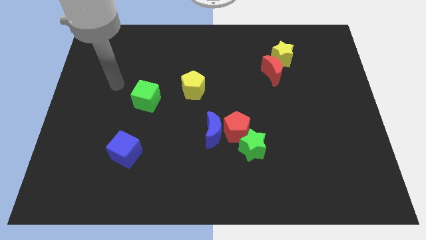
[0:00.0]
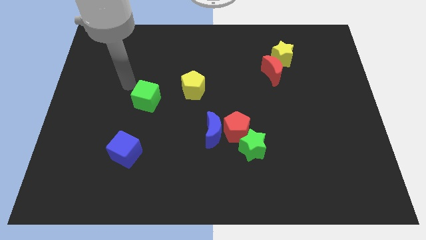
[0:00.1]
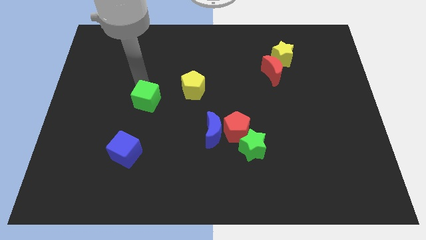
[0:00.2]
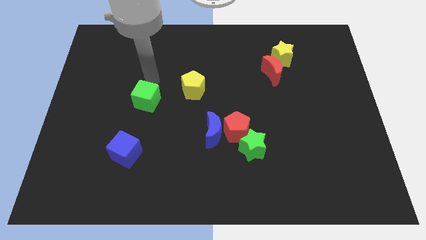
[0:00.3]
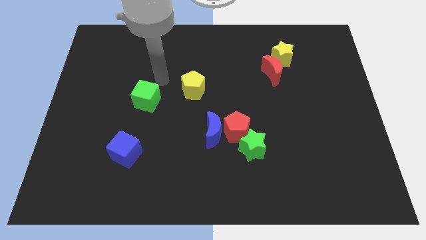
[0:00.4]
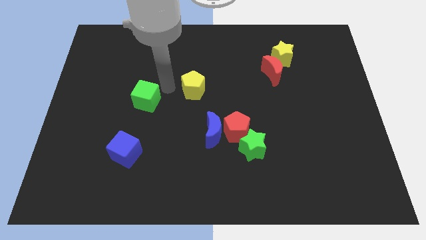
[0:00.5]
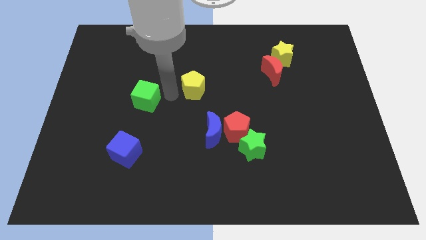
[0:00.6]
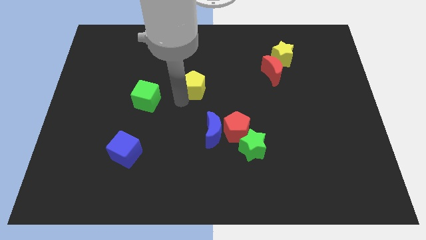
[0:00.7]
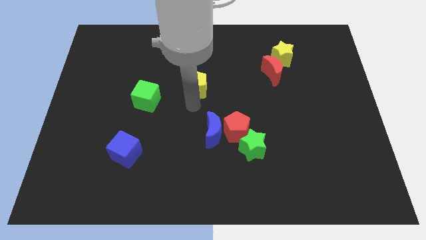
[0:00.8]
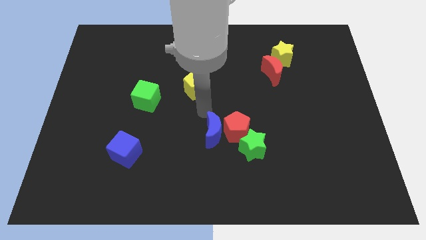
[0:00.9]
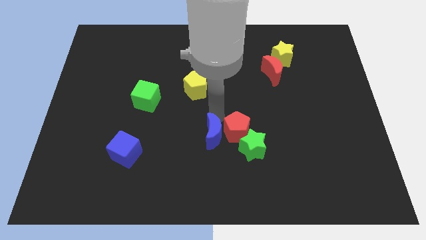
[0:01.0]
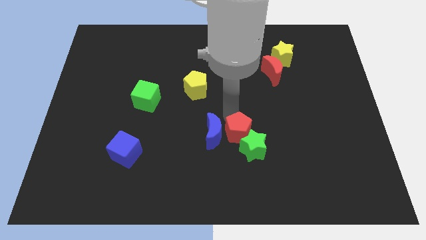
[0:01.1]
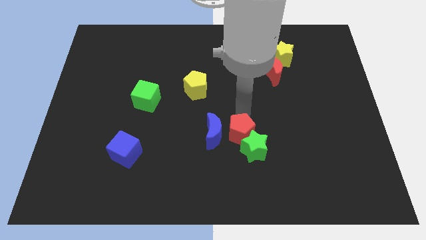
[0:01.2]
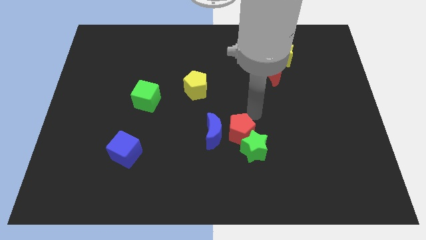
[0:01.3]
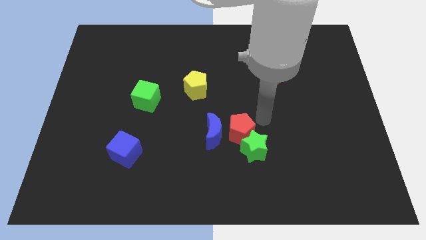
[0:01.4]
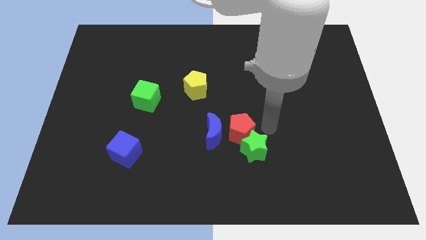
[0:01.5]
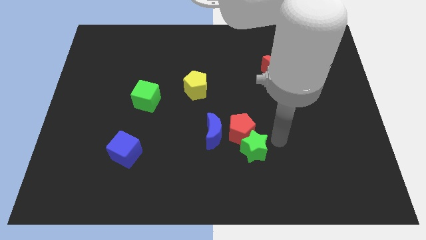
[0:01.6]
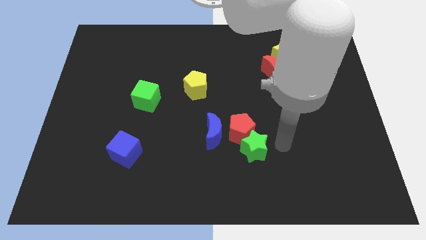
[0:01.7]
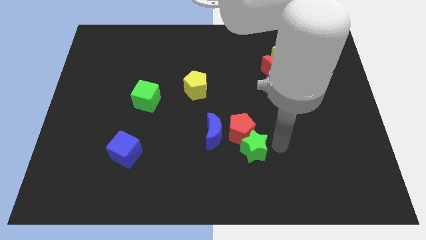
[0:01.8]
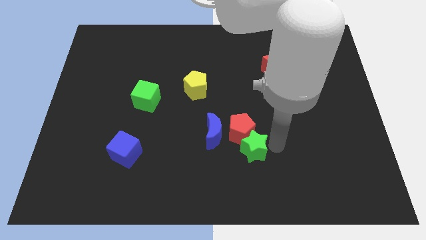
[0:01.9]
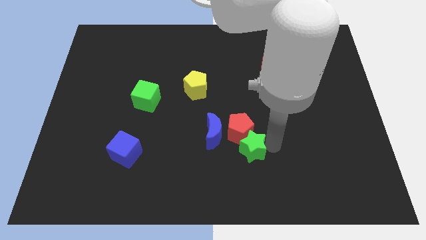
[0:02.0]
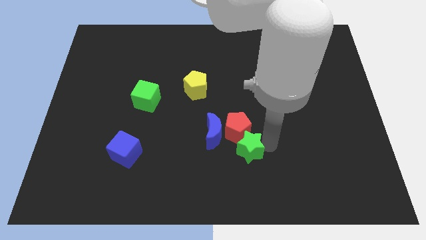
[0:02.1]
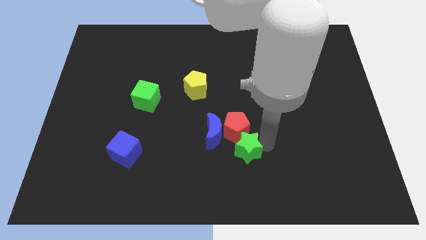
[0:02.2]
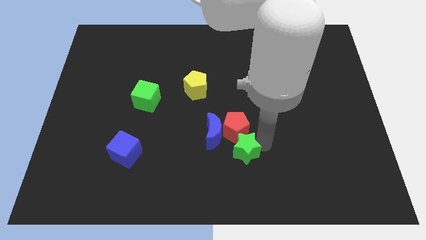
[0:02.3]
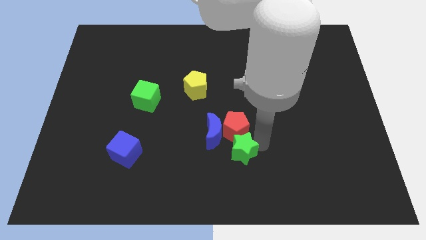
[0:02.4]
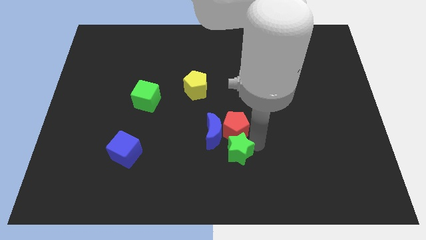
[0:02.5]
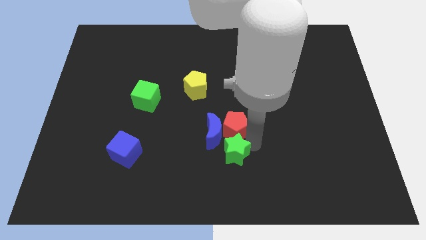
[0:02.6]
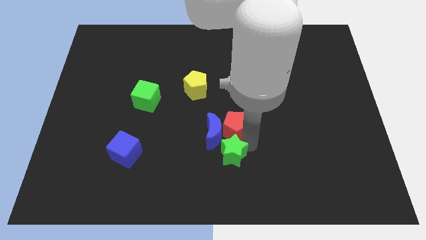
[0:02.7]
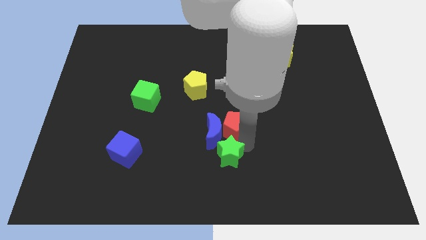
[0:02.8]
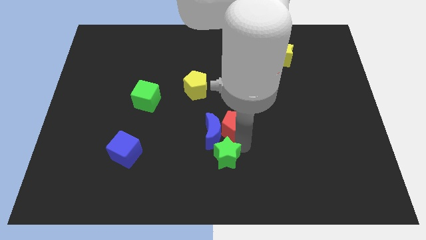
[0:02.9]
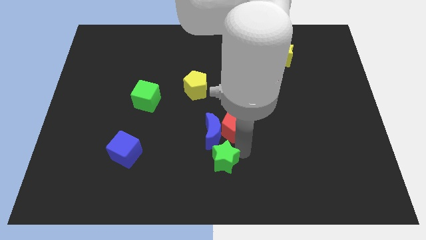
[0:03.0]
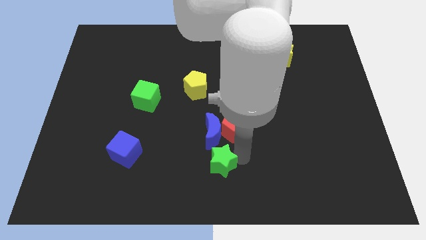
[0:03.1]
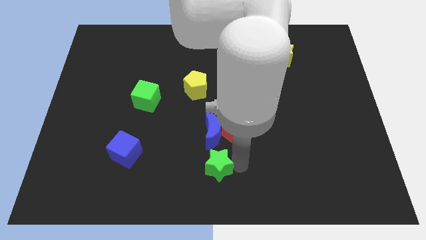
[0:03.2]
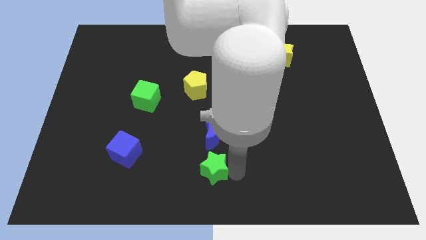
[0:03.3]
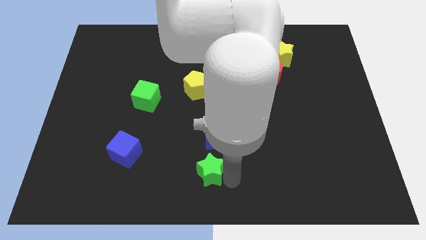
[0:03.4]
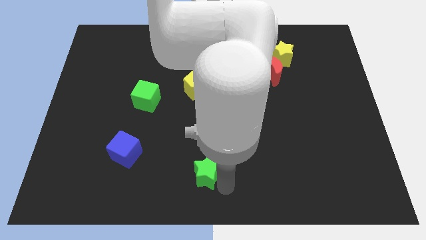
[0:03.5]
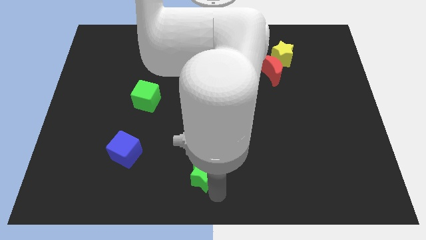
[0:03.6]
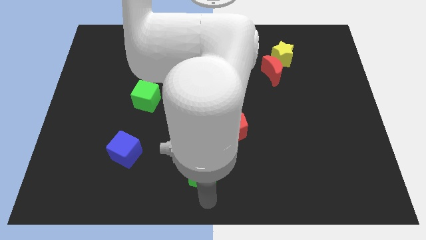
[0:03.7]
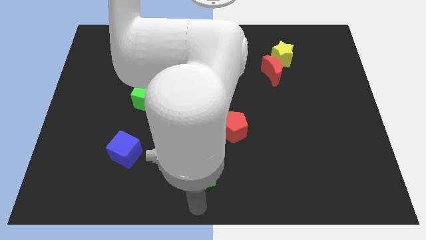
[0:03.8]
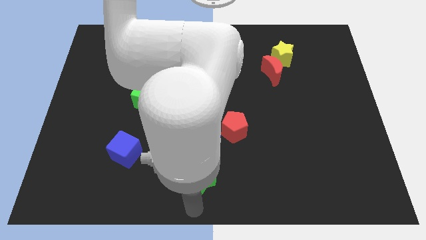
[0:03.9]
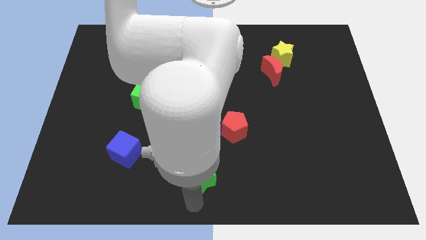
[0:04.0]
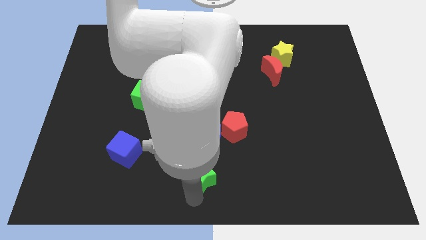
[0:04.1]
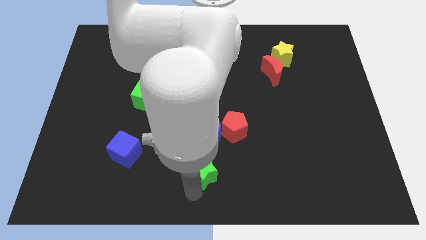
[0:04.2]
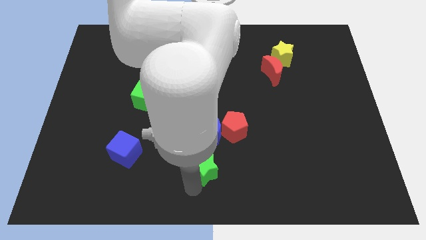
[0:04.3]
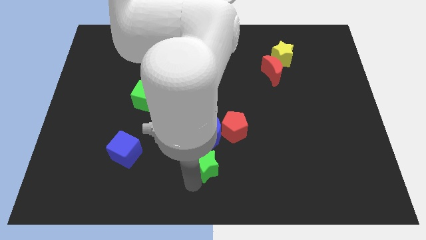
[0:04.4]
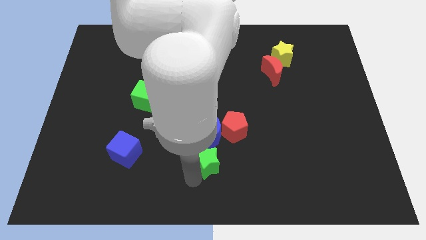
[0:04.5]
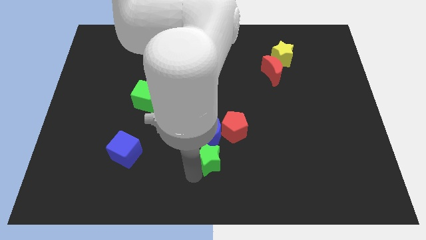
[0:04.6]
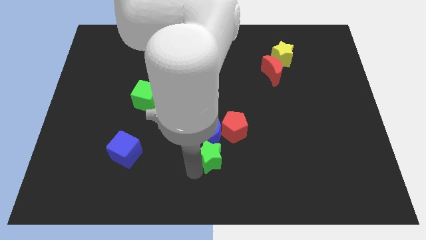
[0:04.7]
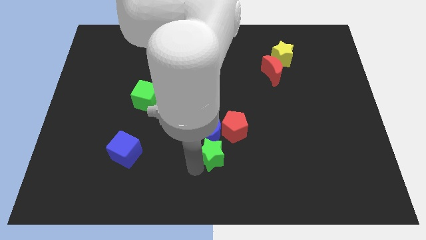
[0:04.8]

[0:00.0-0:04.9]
push the green star next to the blue moon

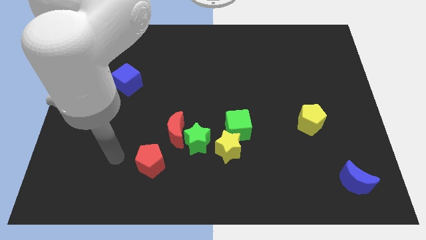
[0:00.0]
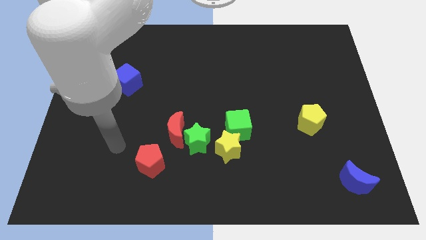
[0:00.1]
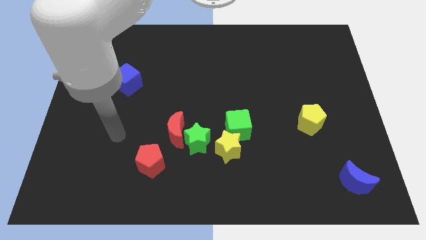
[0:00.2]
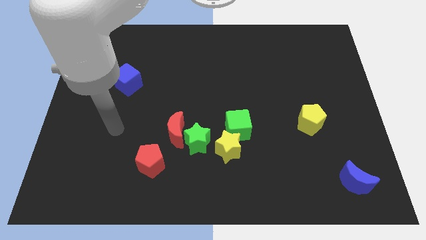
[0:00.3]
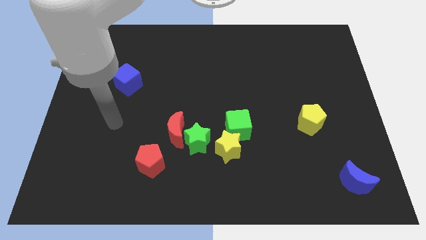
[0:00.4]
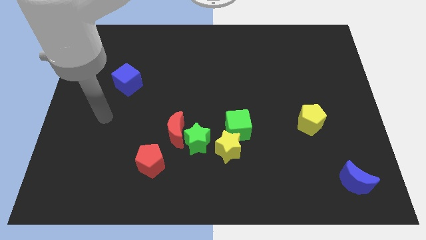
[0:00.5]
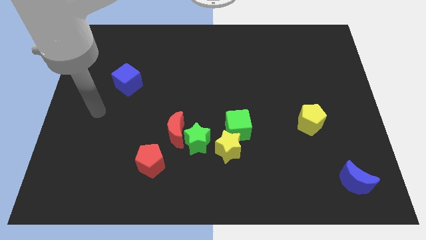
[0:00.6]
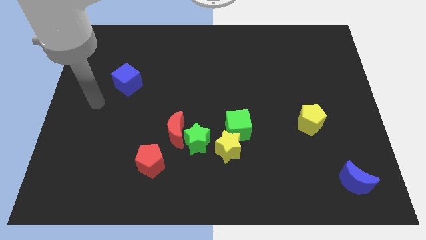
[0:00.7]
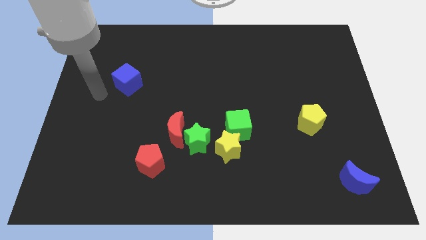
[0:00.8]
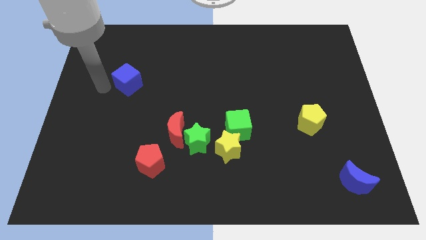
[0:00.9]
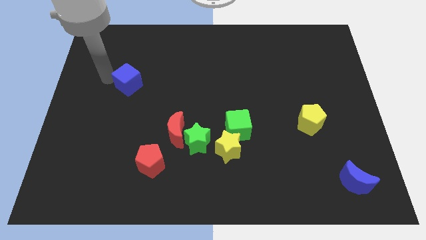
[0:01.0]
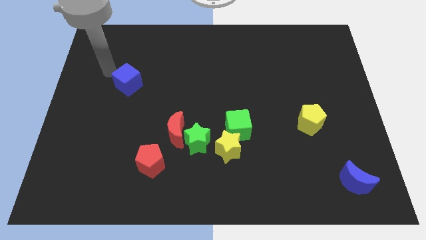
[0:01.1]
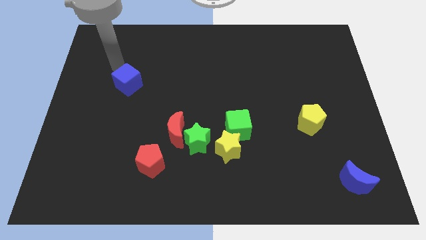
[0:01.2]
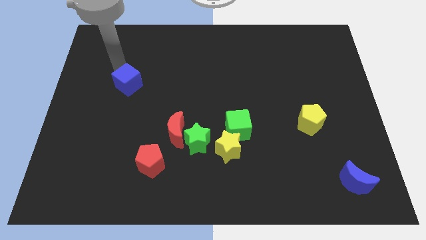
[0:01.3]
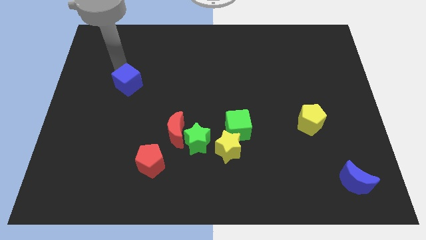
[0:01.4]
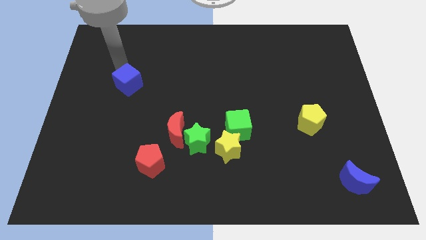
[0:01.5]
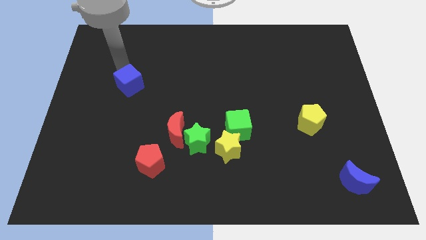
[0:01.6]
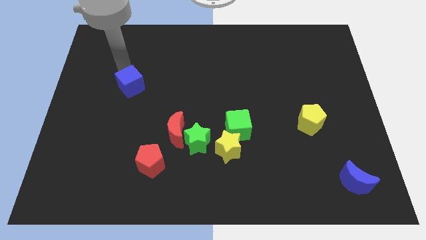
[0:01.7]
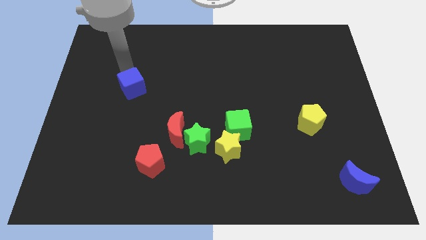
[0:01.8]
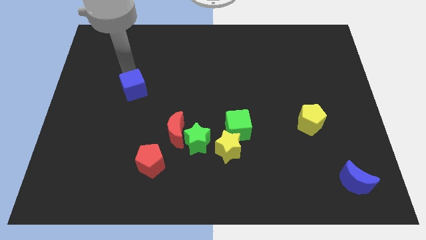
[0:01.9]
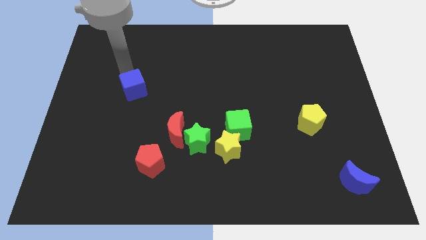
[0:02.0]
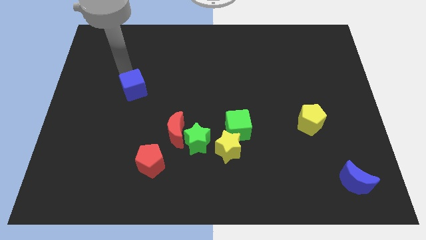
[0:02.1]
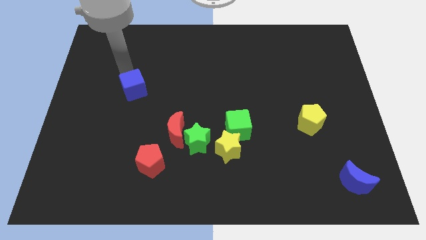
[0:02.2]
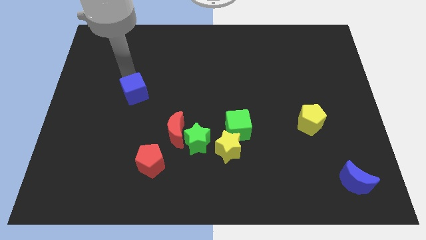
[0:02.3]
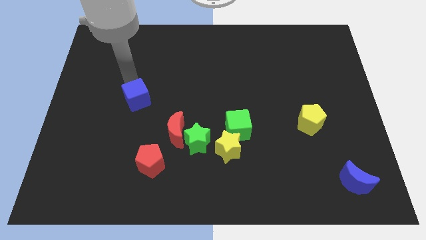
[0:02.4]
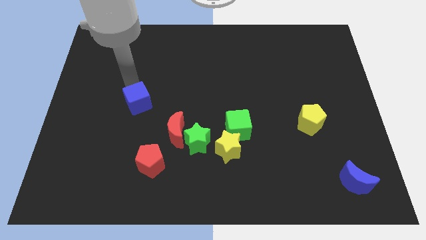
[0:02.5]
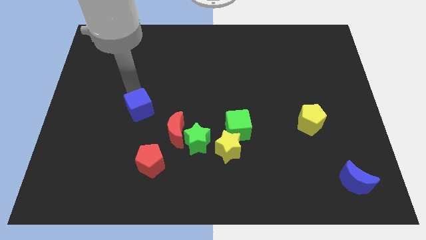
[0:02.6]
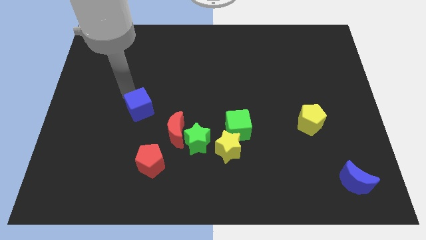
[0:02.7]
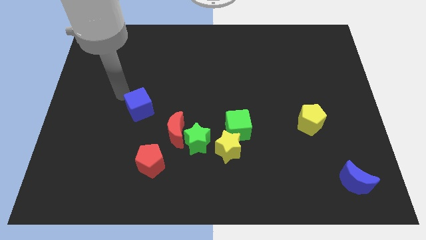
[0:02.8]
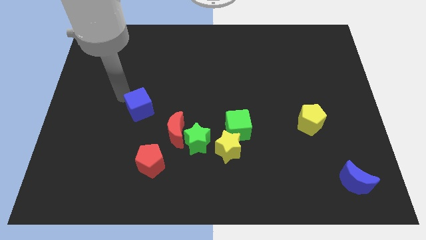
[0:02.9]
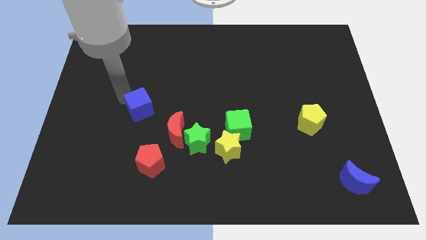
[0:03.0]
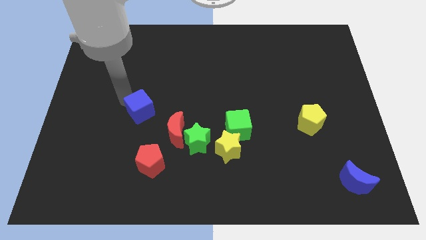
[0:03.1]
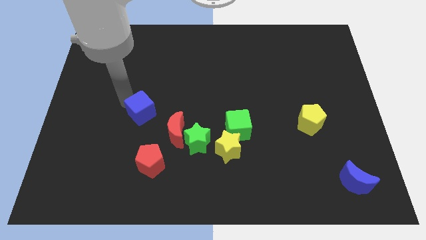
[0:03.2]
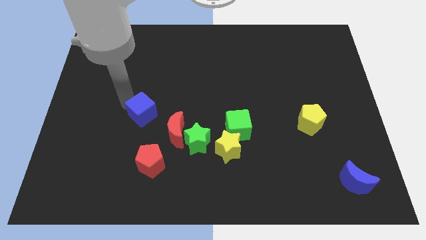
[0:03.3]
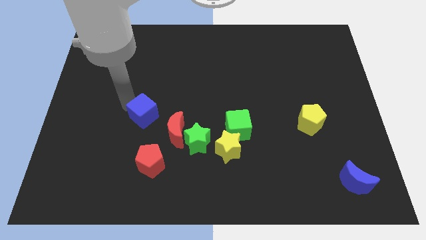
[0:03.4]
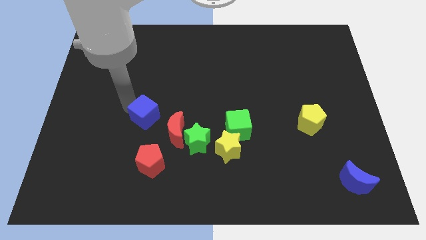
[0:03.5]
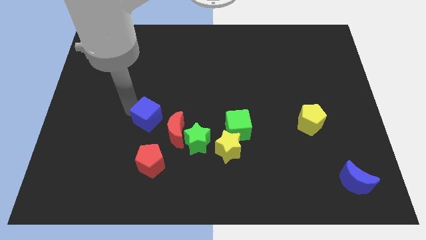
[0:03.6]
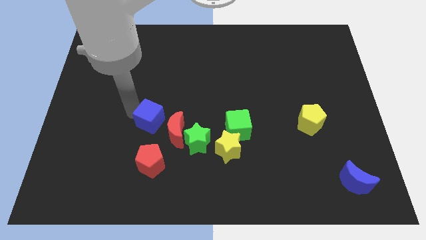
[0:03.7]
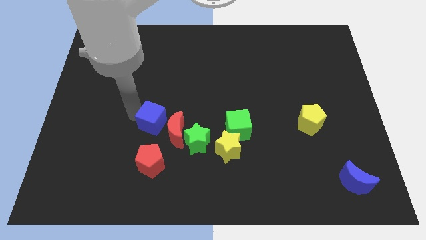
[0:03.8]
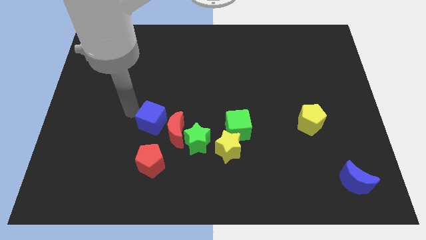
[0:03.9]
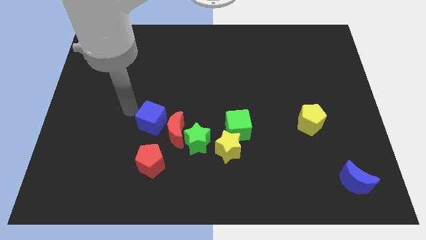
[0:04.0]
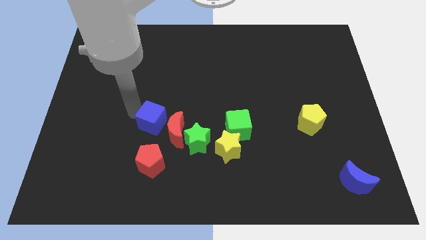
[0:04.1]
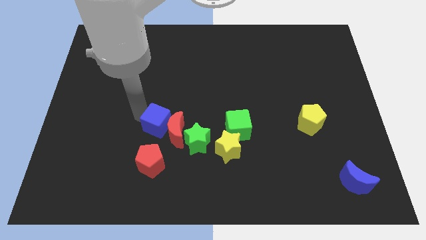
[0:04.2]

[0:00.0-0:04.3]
slide the blue cube close to the red moon
